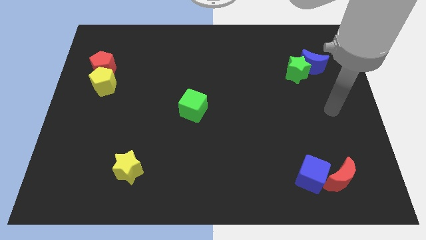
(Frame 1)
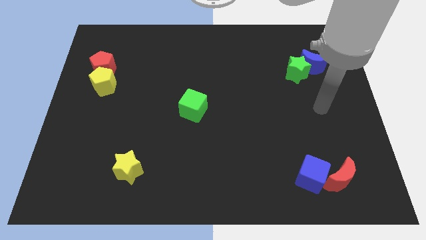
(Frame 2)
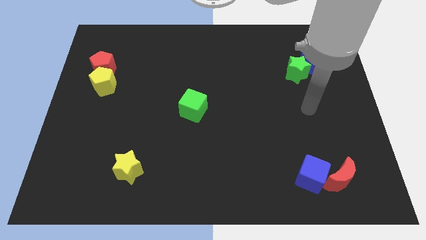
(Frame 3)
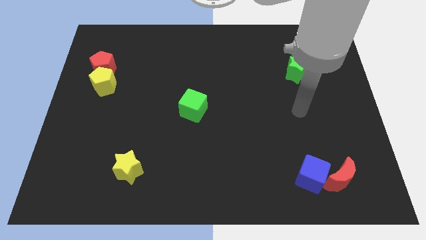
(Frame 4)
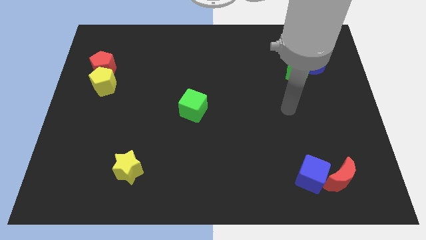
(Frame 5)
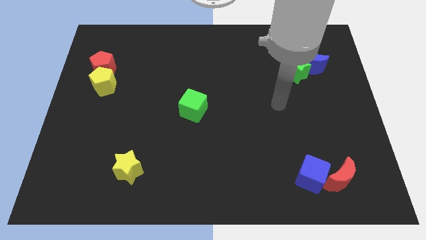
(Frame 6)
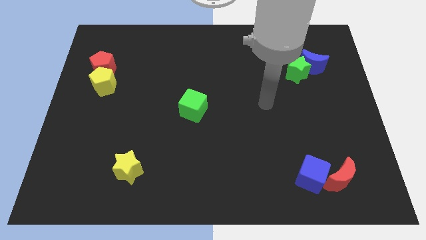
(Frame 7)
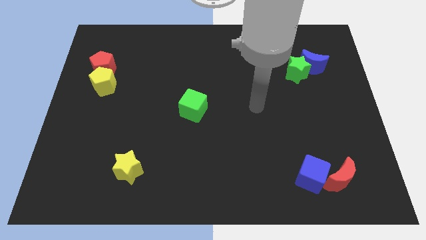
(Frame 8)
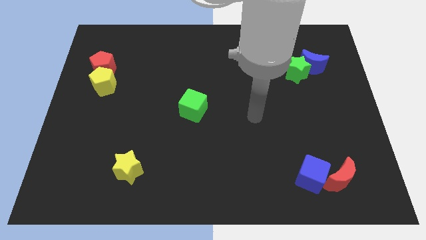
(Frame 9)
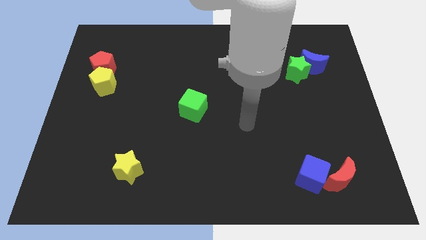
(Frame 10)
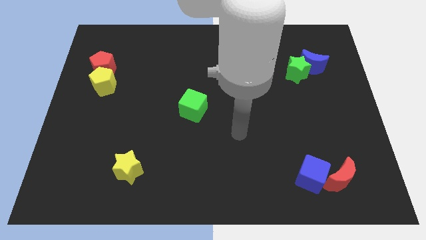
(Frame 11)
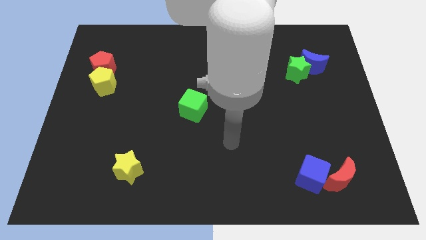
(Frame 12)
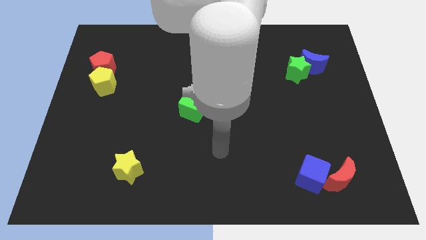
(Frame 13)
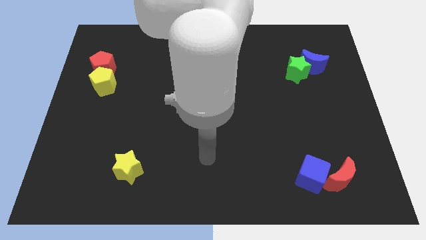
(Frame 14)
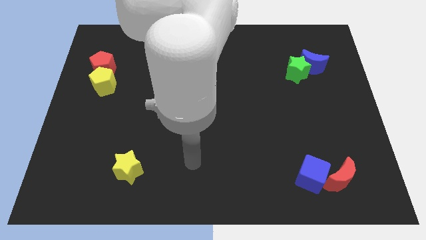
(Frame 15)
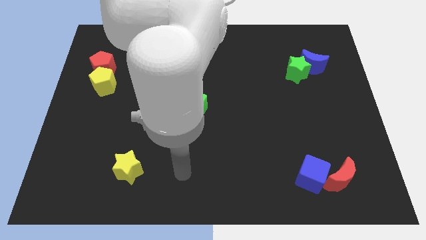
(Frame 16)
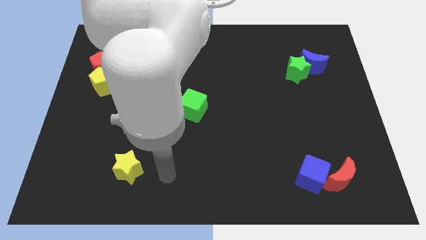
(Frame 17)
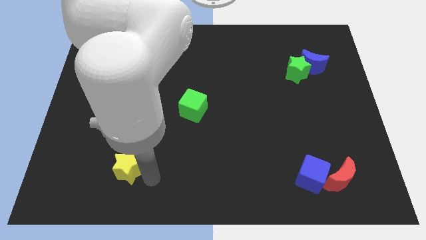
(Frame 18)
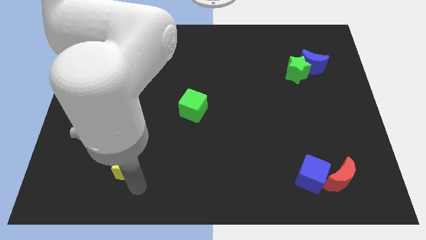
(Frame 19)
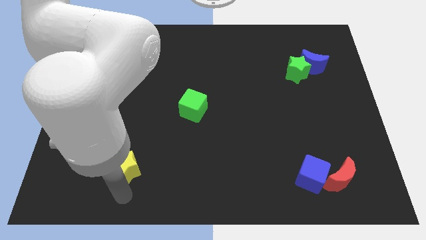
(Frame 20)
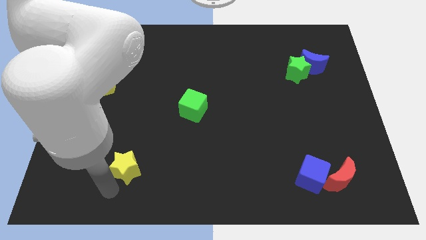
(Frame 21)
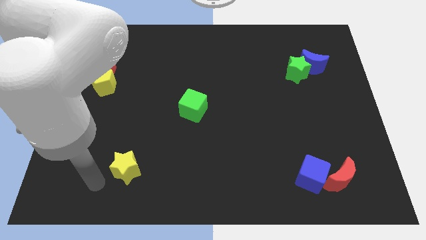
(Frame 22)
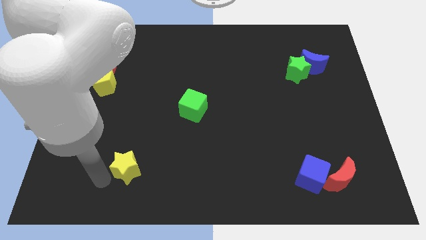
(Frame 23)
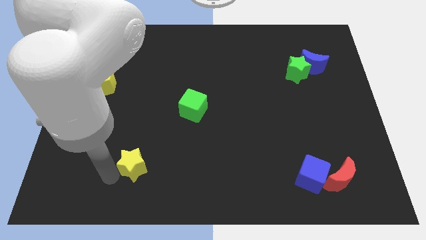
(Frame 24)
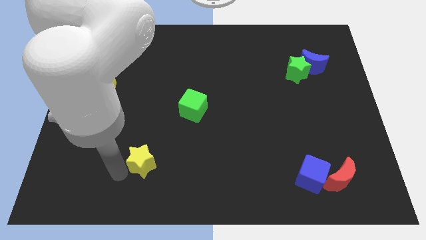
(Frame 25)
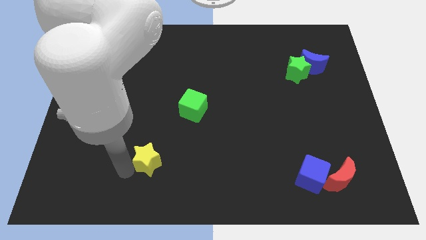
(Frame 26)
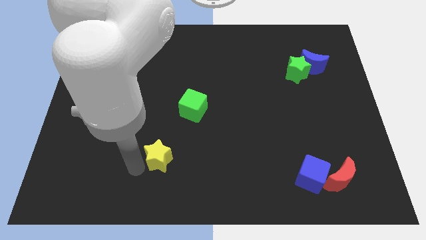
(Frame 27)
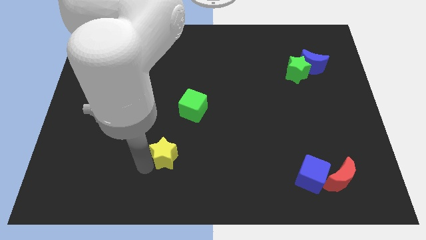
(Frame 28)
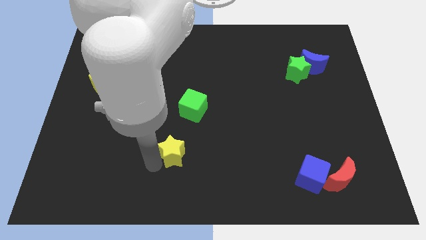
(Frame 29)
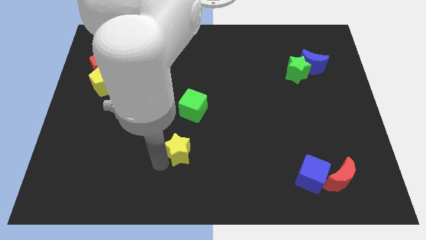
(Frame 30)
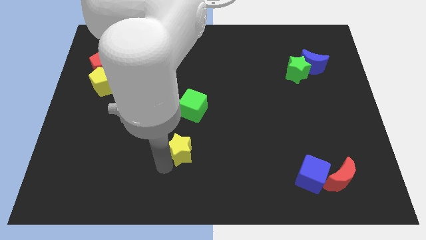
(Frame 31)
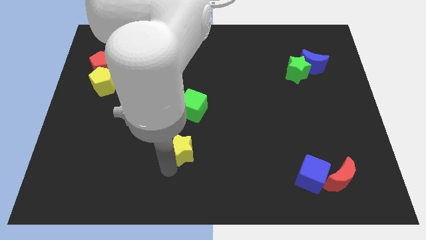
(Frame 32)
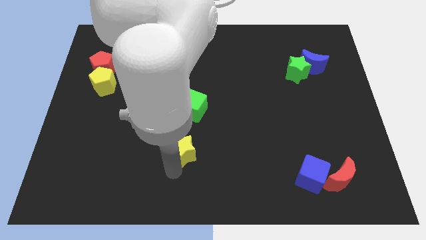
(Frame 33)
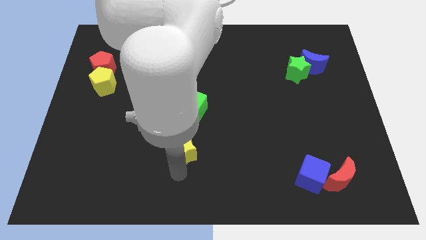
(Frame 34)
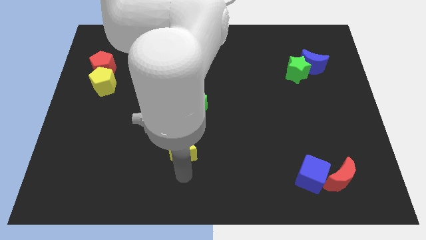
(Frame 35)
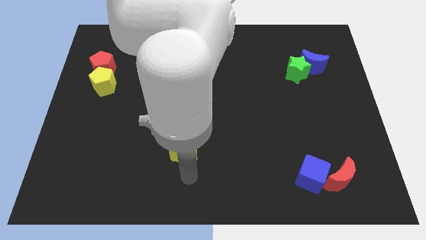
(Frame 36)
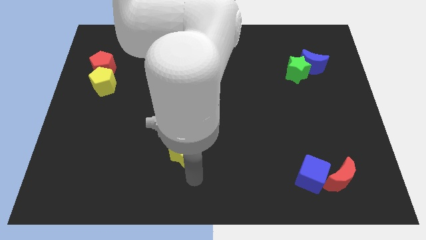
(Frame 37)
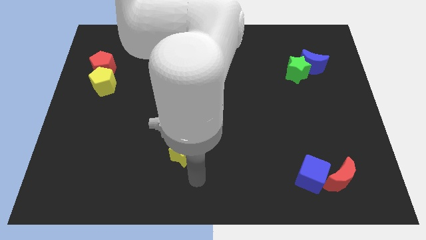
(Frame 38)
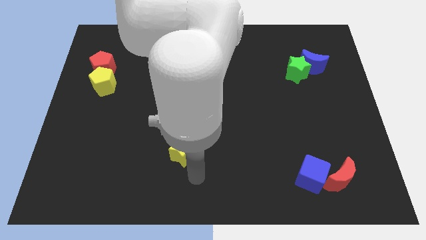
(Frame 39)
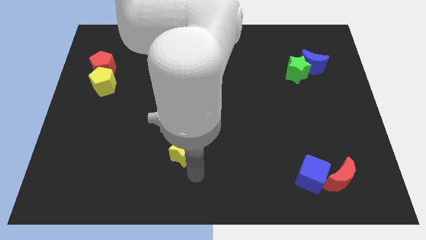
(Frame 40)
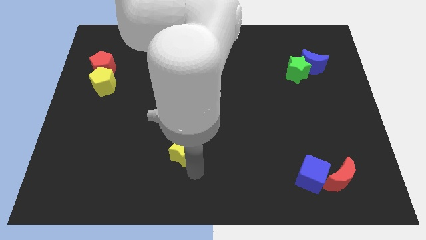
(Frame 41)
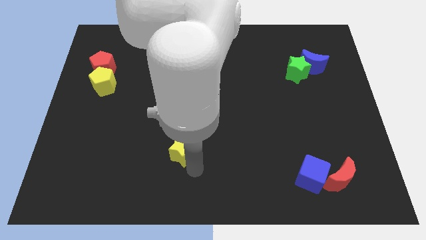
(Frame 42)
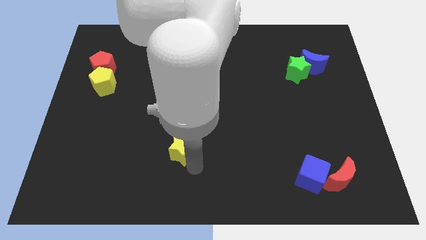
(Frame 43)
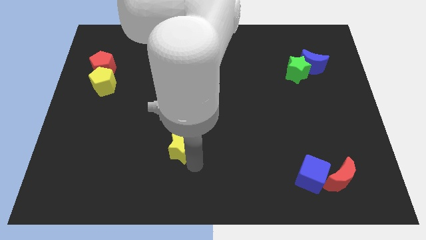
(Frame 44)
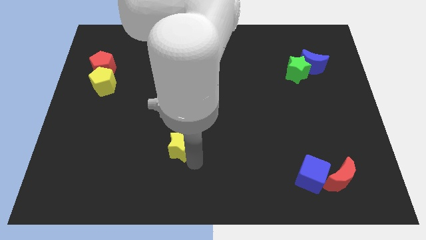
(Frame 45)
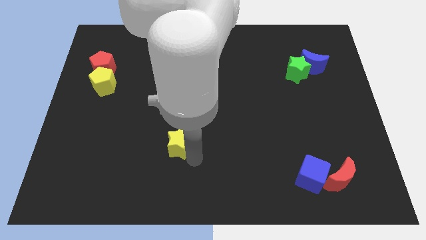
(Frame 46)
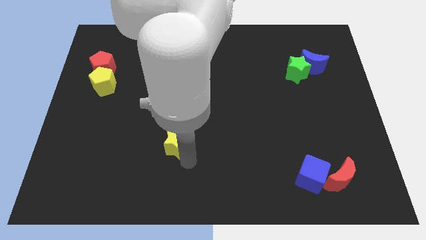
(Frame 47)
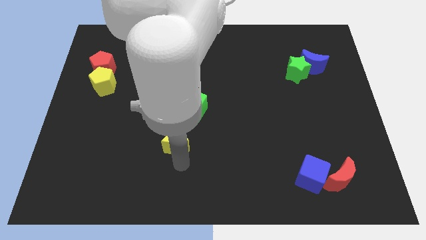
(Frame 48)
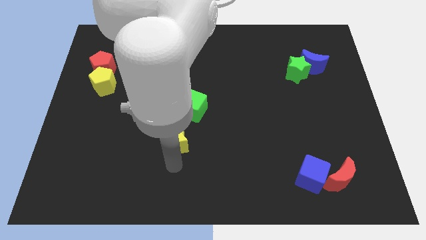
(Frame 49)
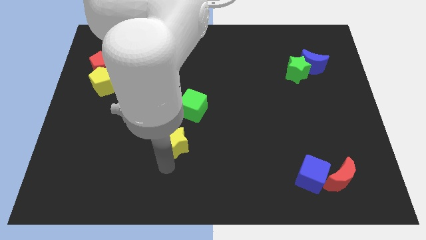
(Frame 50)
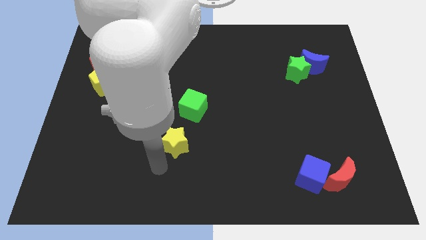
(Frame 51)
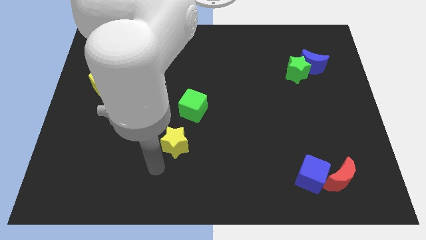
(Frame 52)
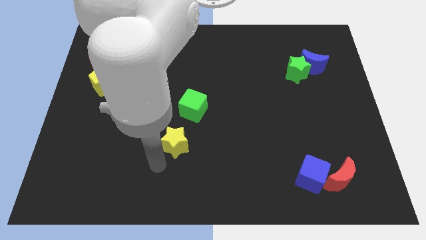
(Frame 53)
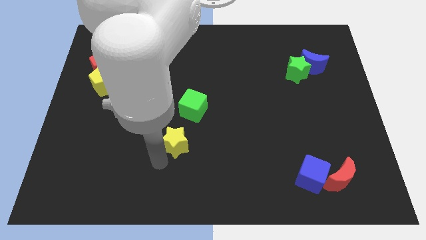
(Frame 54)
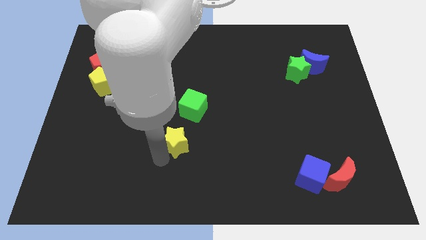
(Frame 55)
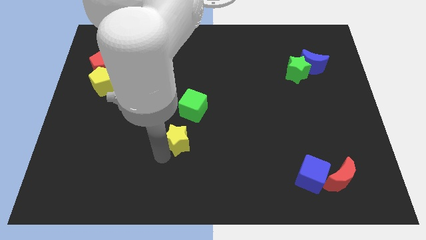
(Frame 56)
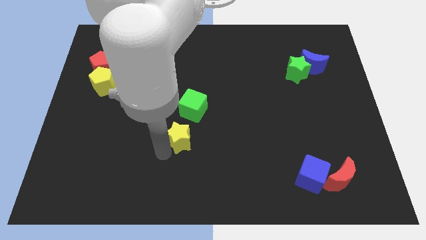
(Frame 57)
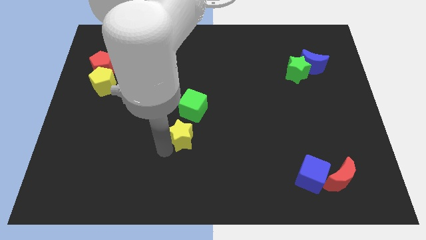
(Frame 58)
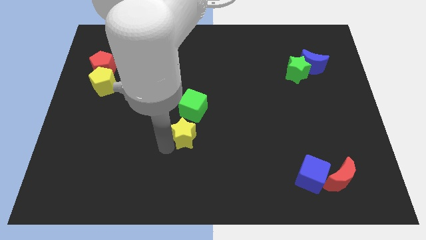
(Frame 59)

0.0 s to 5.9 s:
put the yellow star to the middle of the board

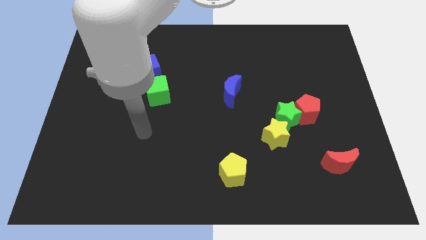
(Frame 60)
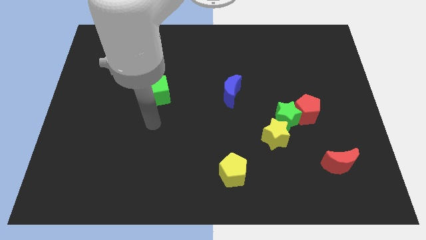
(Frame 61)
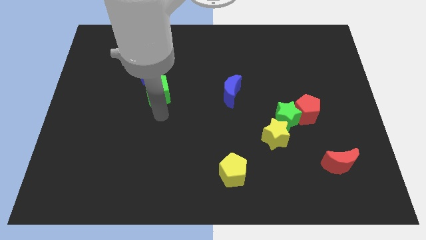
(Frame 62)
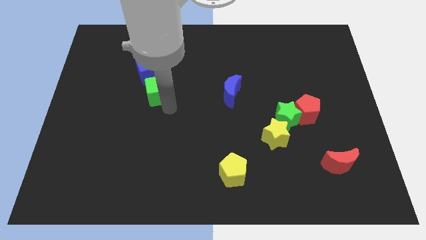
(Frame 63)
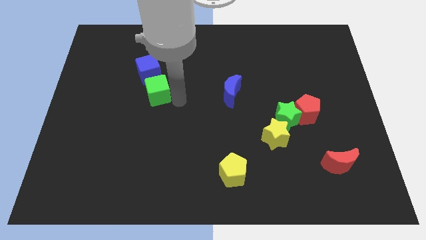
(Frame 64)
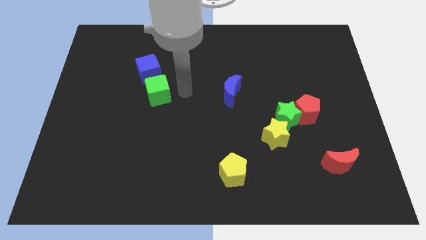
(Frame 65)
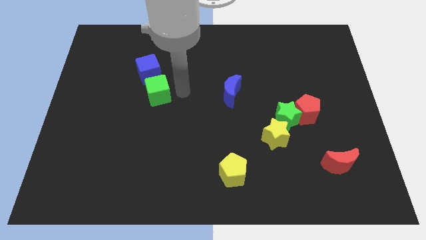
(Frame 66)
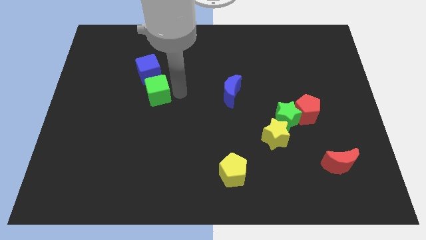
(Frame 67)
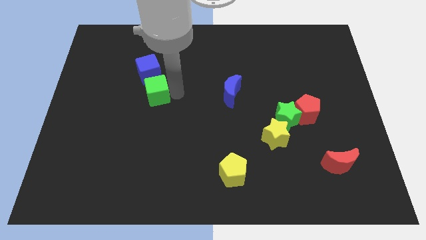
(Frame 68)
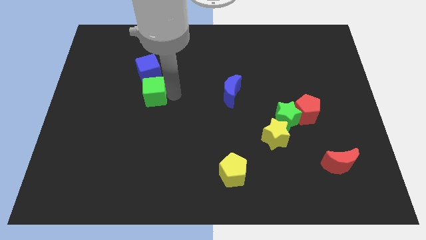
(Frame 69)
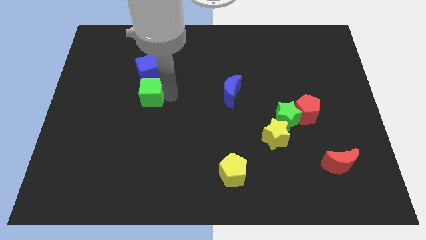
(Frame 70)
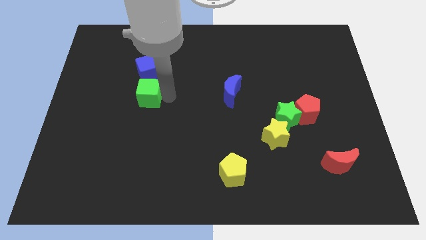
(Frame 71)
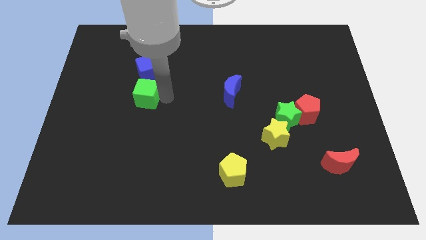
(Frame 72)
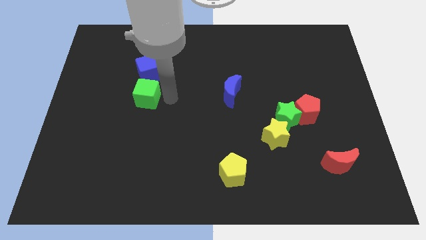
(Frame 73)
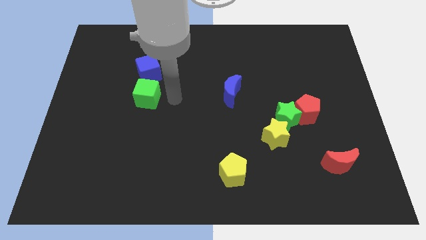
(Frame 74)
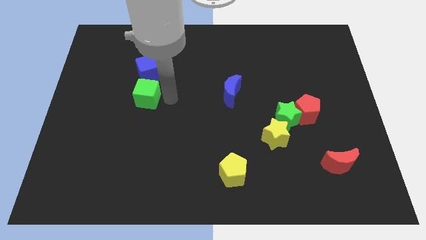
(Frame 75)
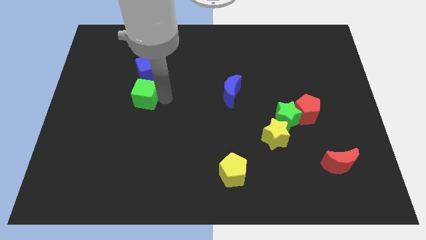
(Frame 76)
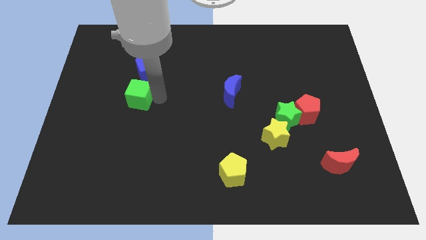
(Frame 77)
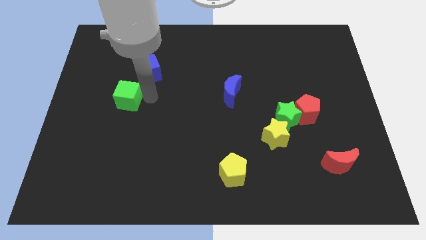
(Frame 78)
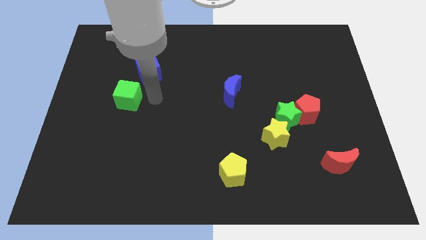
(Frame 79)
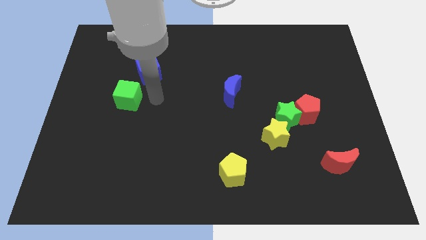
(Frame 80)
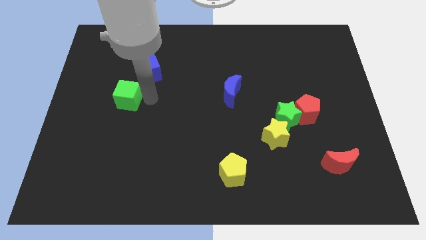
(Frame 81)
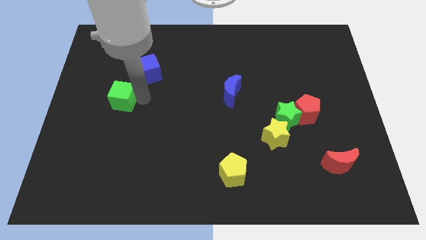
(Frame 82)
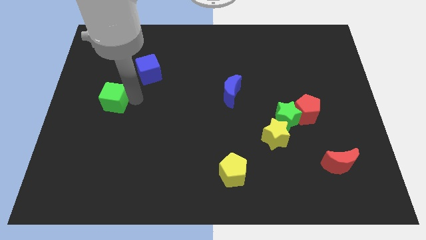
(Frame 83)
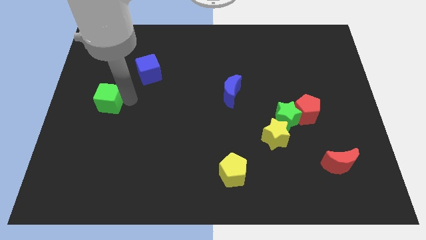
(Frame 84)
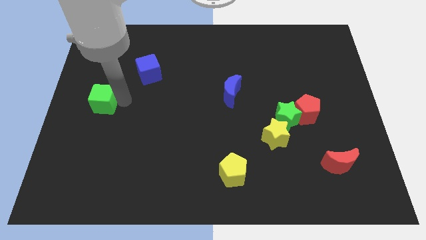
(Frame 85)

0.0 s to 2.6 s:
move the green cube to the left side of the board
